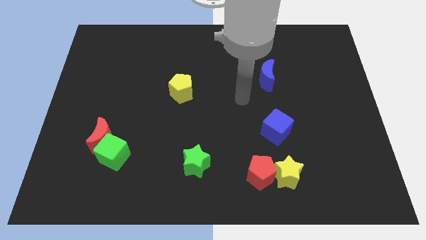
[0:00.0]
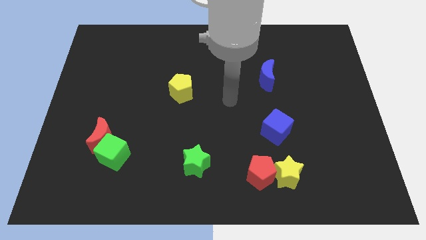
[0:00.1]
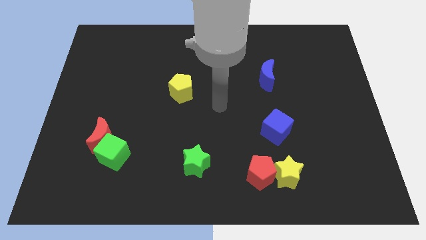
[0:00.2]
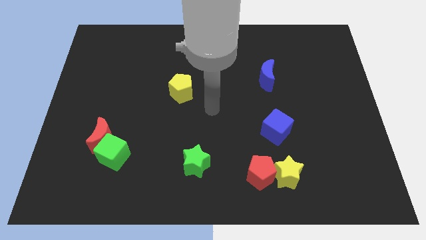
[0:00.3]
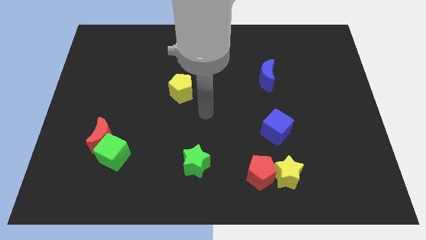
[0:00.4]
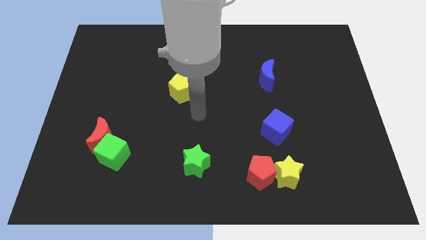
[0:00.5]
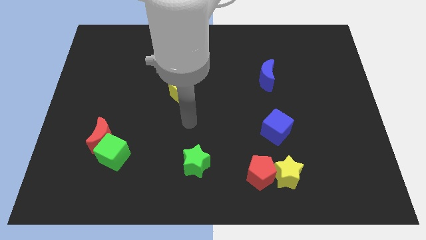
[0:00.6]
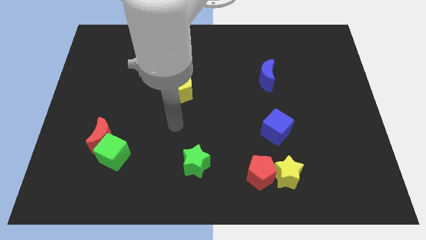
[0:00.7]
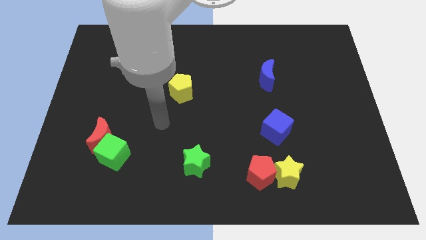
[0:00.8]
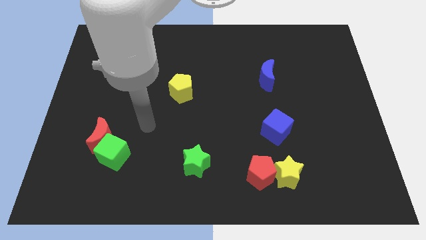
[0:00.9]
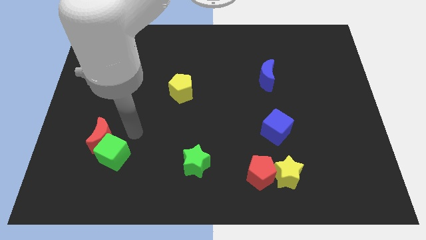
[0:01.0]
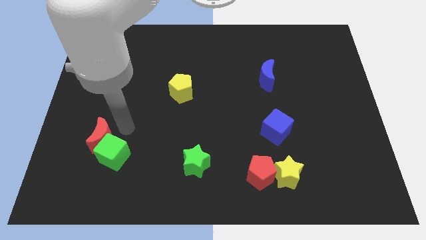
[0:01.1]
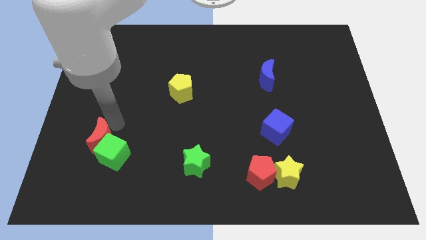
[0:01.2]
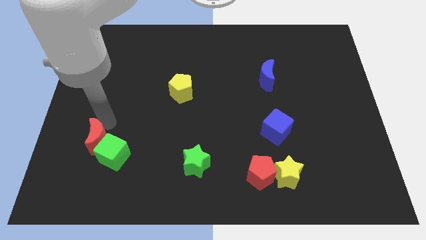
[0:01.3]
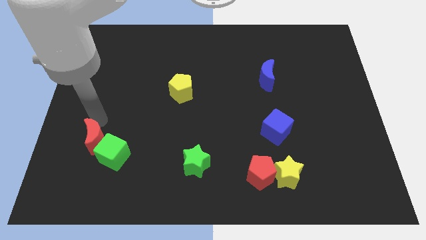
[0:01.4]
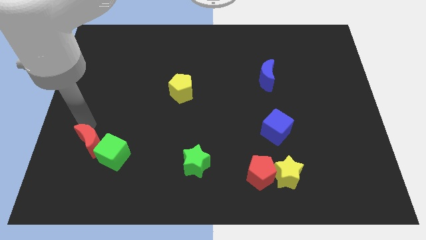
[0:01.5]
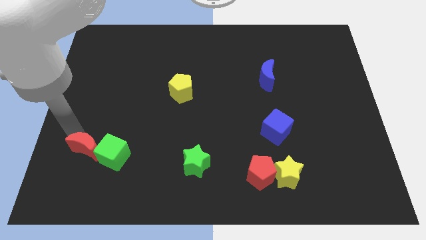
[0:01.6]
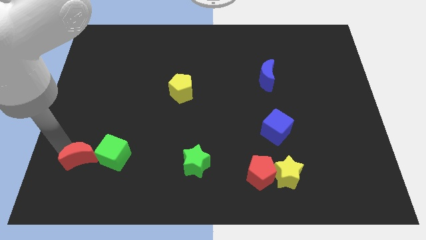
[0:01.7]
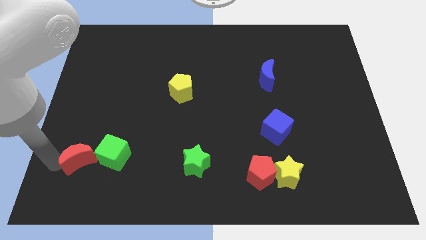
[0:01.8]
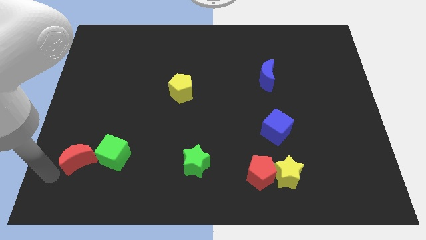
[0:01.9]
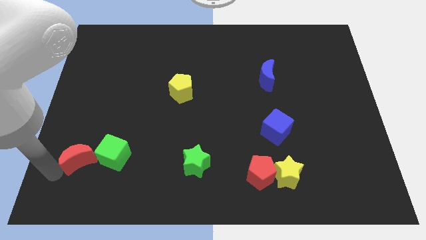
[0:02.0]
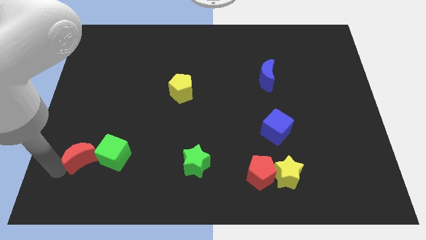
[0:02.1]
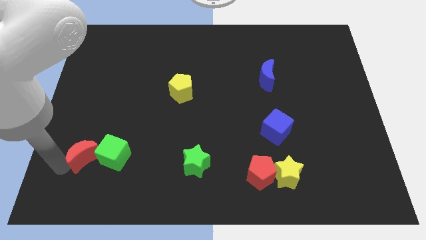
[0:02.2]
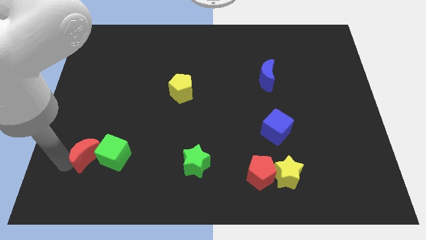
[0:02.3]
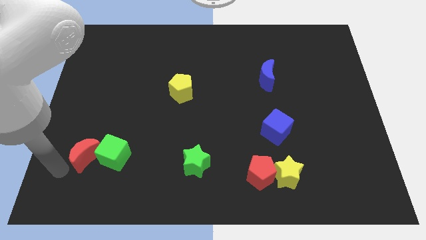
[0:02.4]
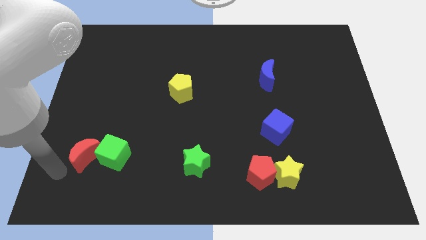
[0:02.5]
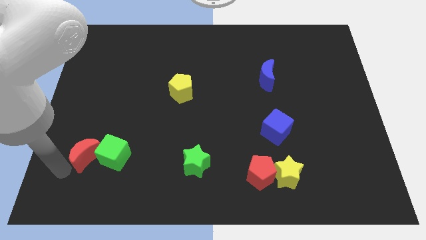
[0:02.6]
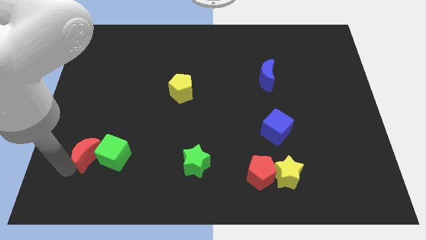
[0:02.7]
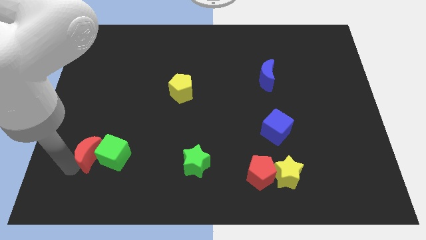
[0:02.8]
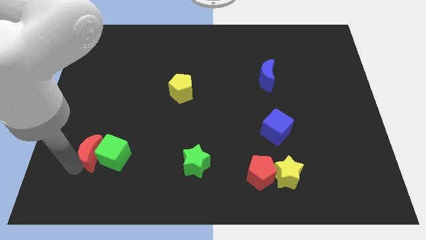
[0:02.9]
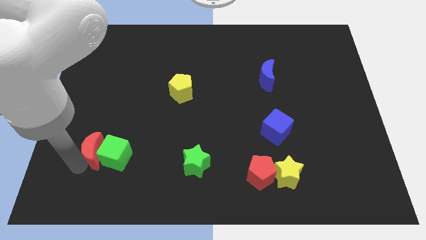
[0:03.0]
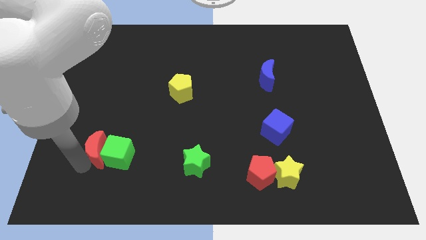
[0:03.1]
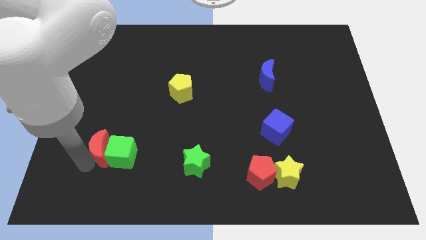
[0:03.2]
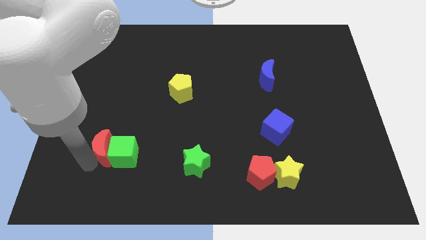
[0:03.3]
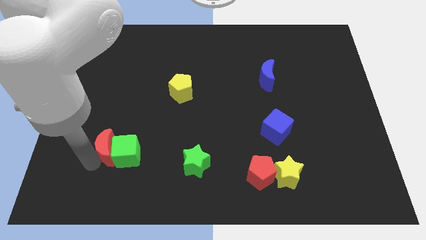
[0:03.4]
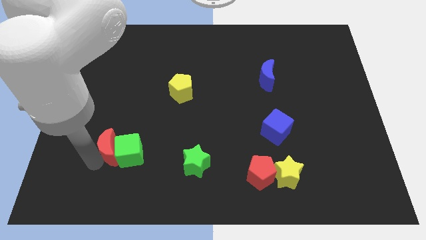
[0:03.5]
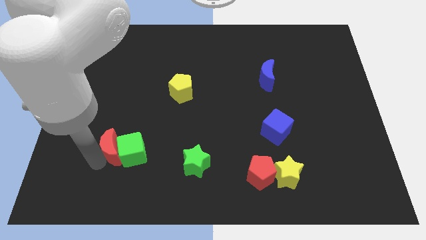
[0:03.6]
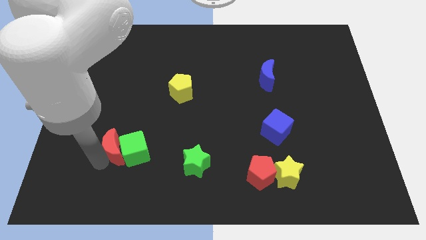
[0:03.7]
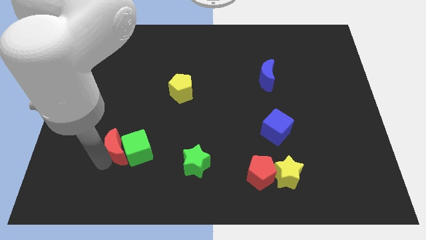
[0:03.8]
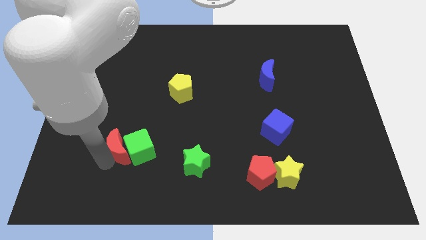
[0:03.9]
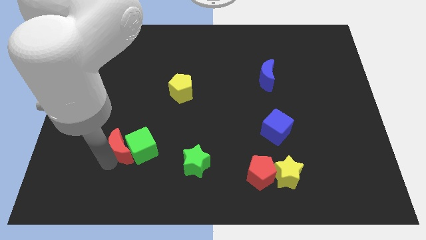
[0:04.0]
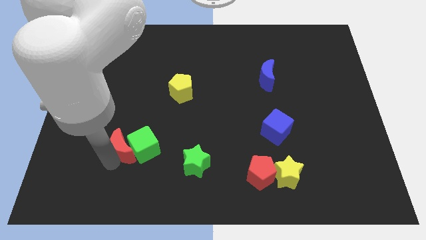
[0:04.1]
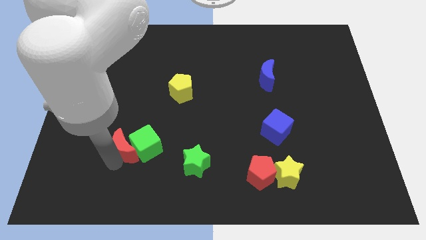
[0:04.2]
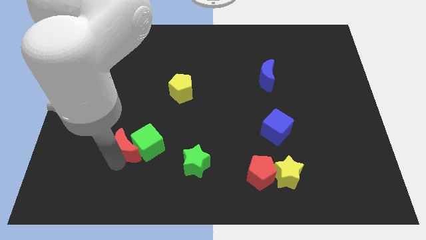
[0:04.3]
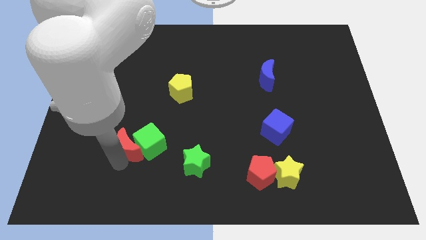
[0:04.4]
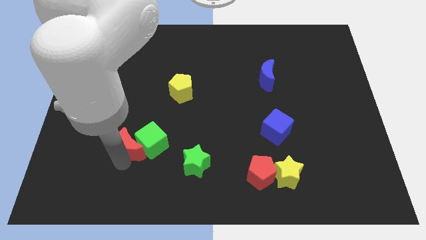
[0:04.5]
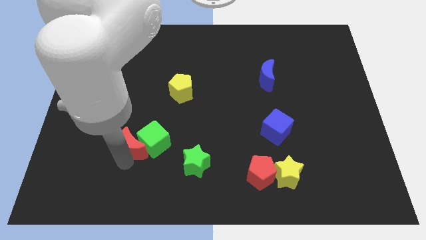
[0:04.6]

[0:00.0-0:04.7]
slide the red moon a bit to the right

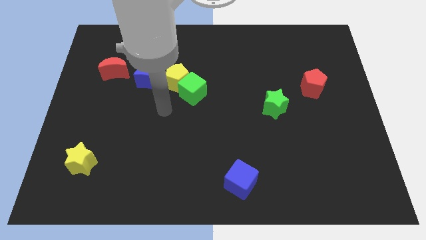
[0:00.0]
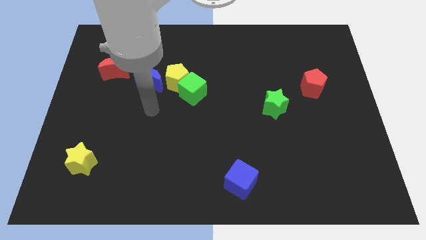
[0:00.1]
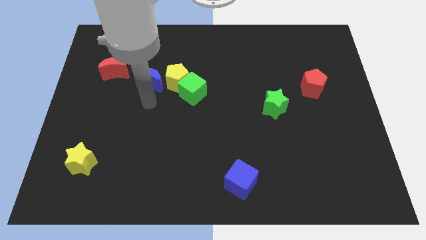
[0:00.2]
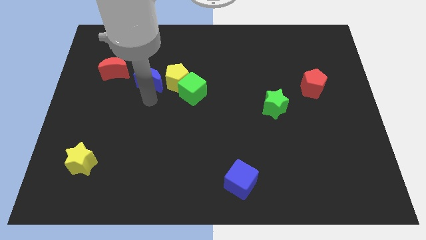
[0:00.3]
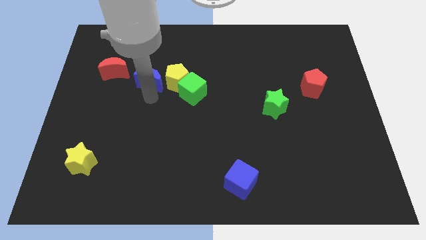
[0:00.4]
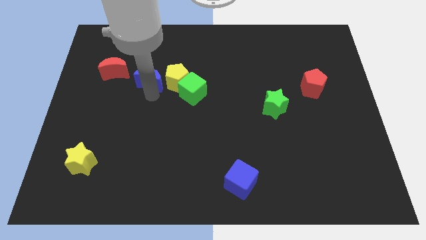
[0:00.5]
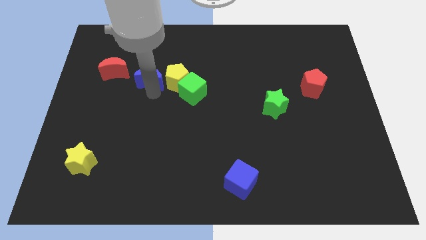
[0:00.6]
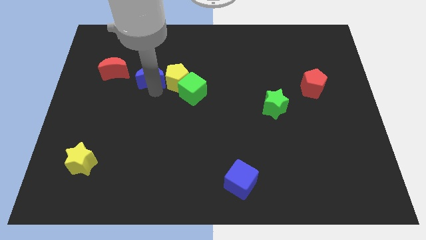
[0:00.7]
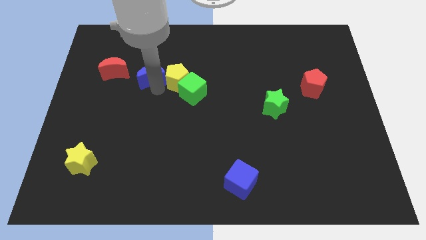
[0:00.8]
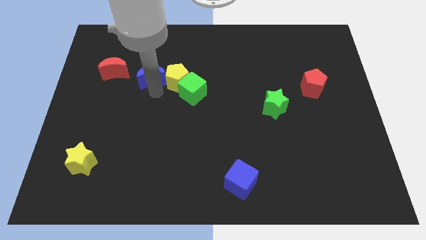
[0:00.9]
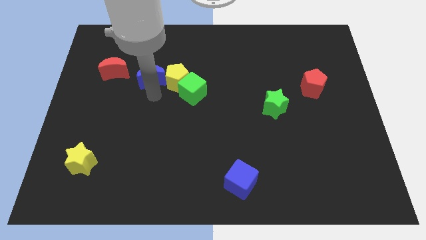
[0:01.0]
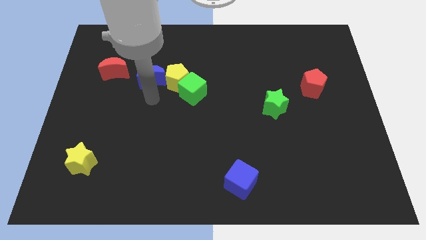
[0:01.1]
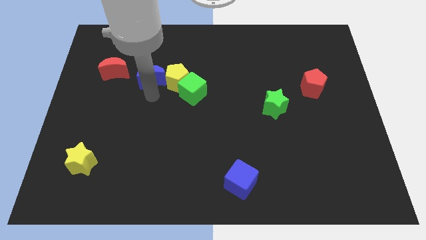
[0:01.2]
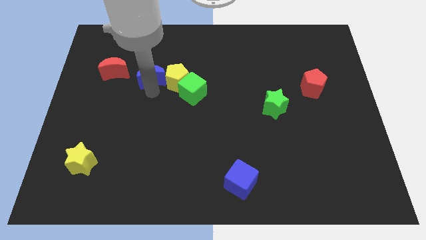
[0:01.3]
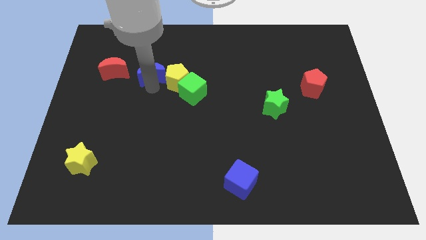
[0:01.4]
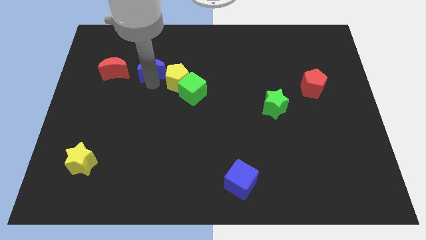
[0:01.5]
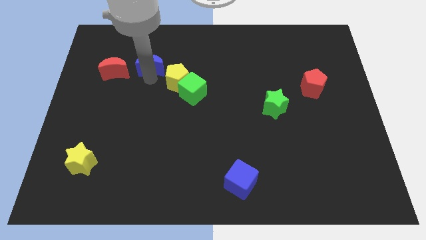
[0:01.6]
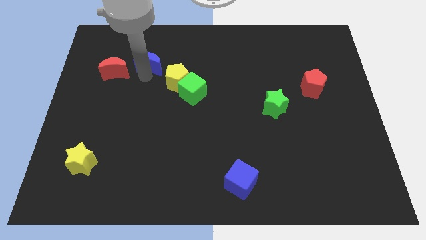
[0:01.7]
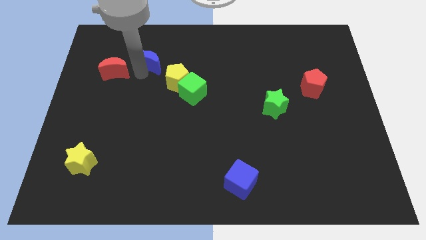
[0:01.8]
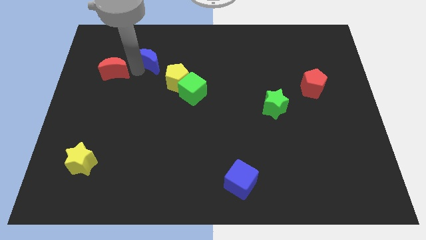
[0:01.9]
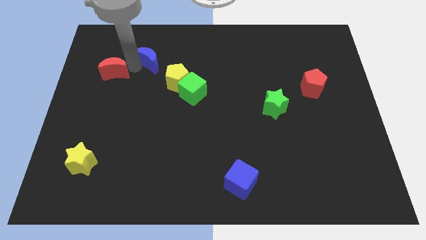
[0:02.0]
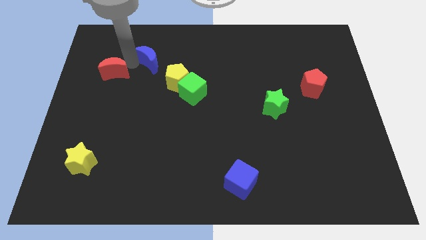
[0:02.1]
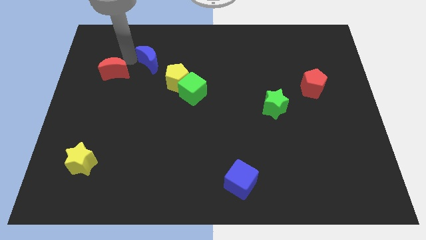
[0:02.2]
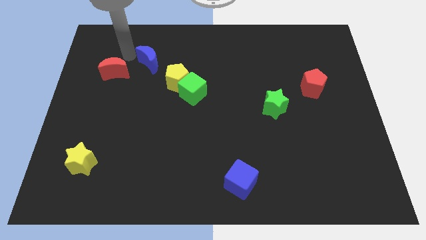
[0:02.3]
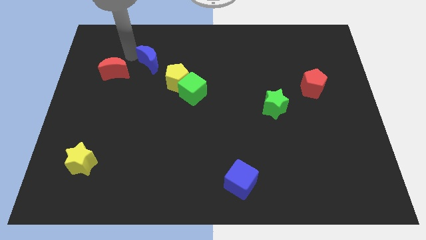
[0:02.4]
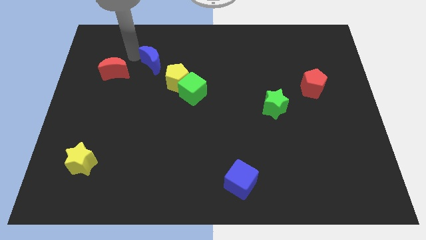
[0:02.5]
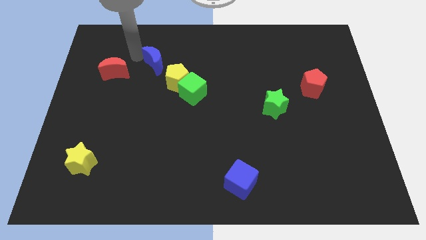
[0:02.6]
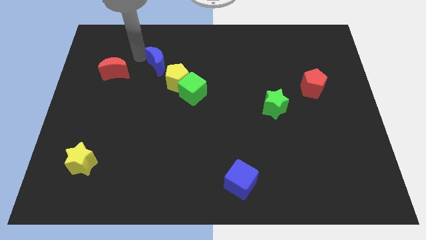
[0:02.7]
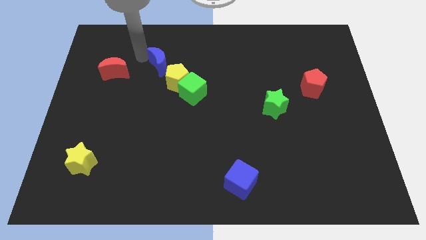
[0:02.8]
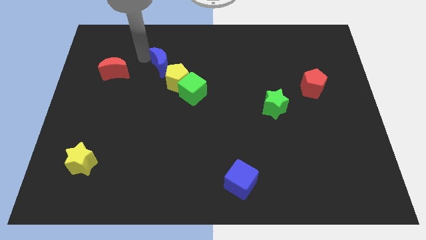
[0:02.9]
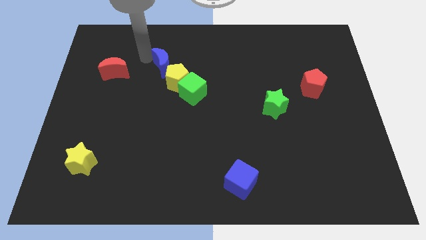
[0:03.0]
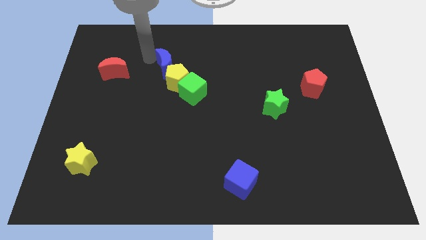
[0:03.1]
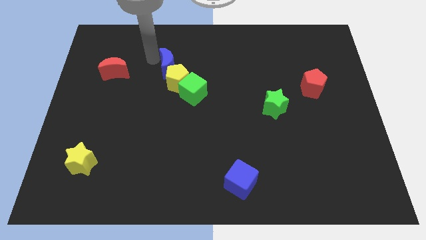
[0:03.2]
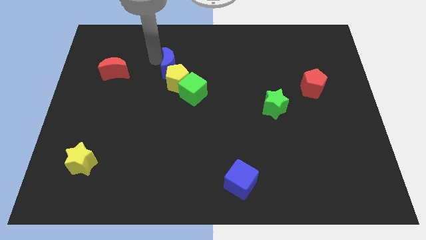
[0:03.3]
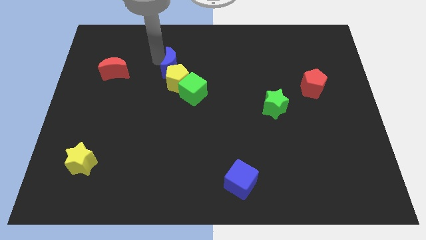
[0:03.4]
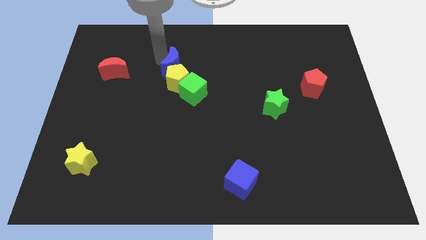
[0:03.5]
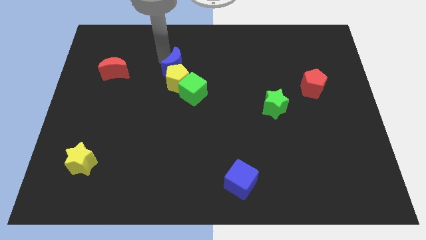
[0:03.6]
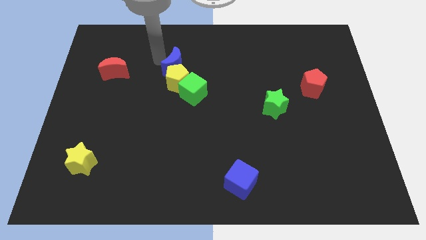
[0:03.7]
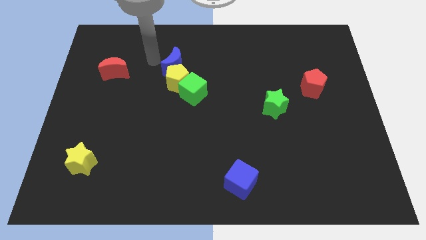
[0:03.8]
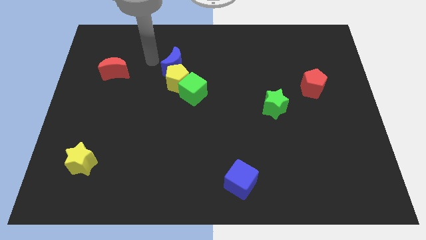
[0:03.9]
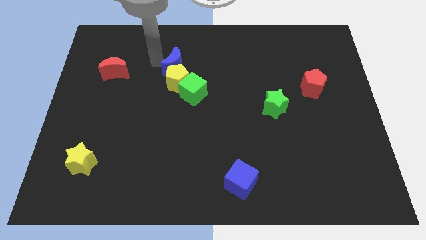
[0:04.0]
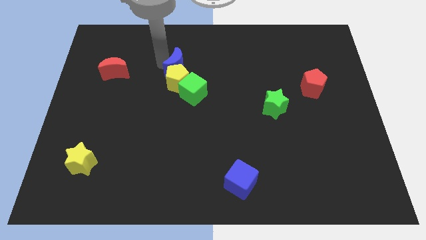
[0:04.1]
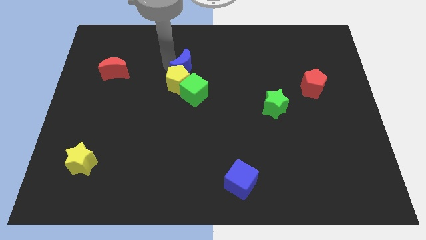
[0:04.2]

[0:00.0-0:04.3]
slide the blue moon a little bit right
